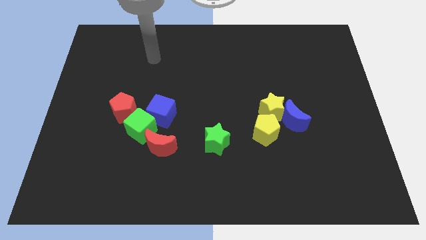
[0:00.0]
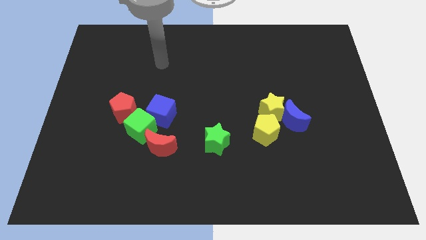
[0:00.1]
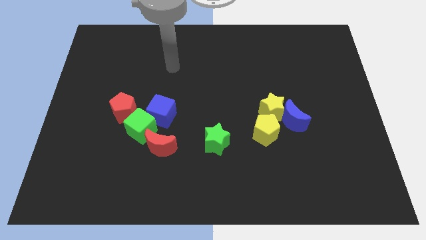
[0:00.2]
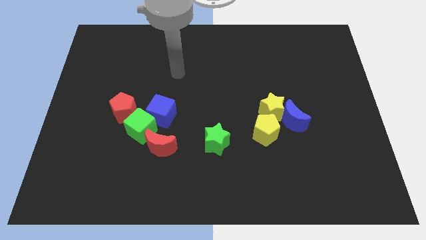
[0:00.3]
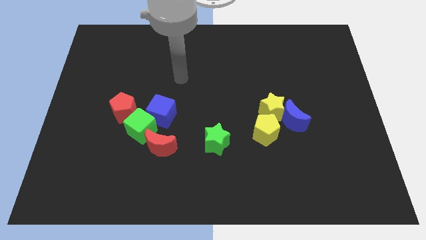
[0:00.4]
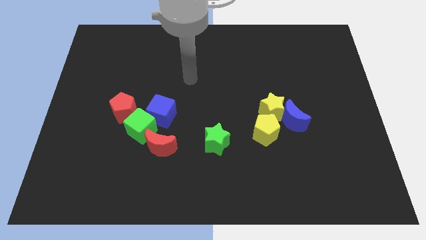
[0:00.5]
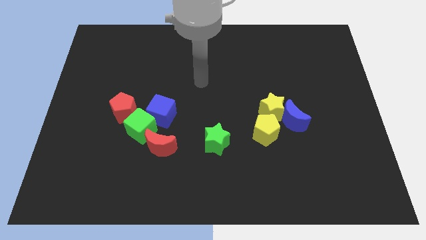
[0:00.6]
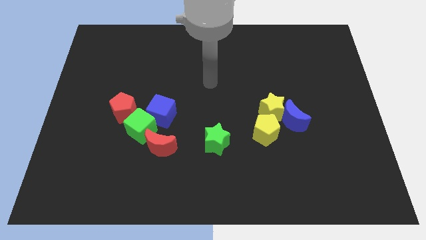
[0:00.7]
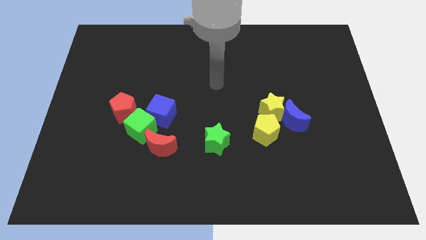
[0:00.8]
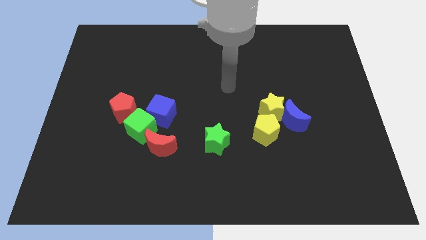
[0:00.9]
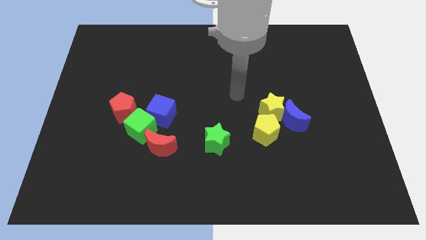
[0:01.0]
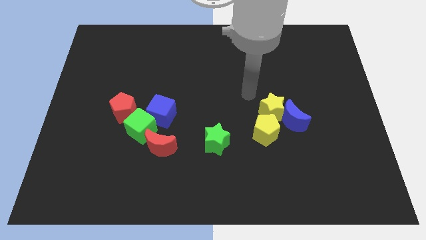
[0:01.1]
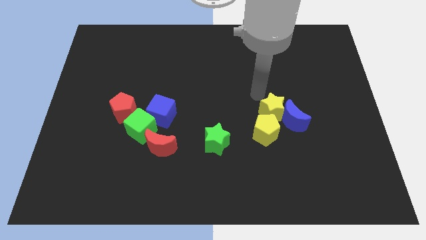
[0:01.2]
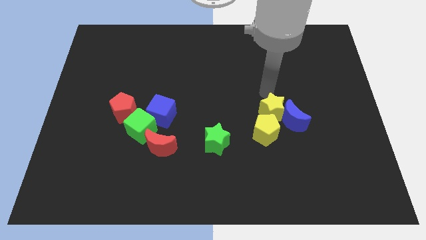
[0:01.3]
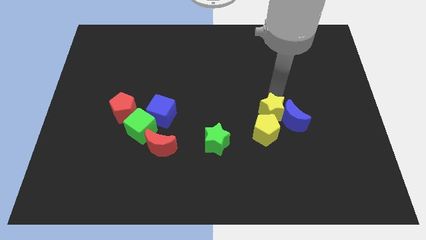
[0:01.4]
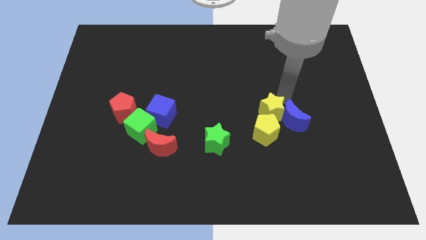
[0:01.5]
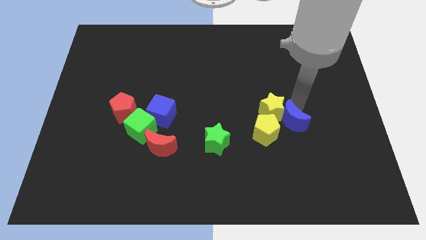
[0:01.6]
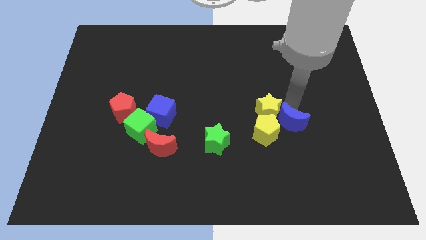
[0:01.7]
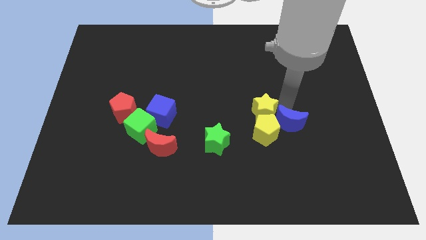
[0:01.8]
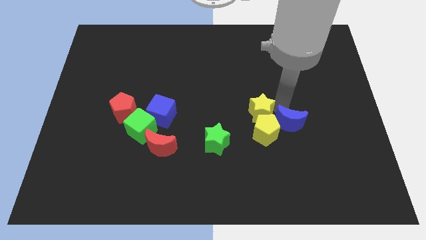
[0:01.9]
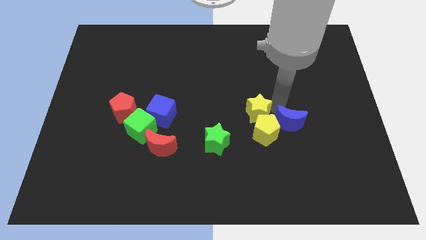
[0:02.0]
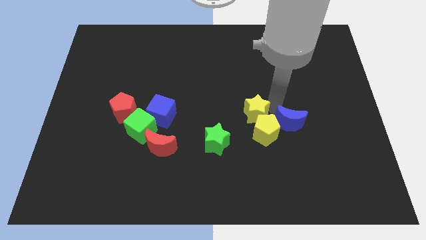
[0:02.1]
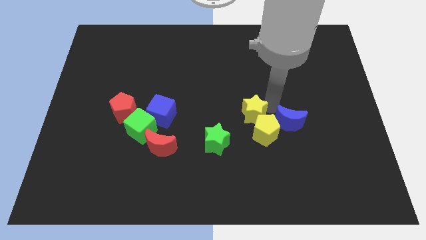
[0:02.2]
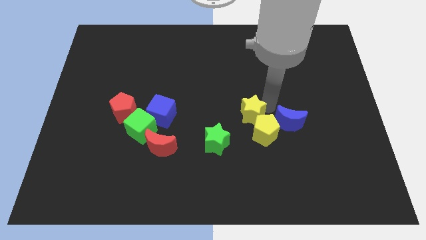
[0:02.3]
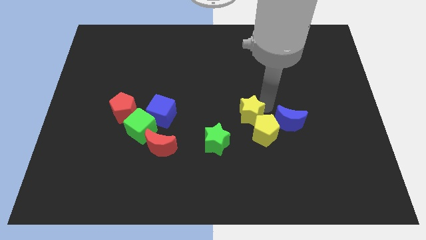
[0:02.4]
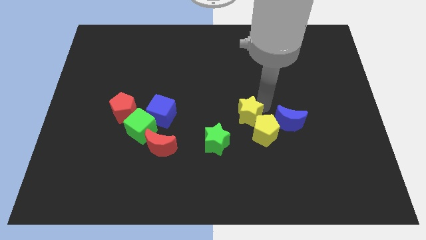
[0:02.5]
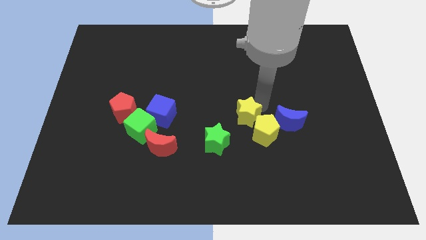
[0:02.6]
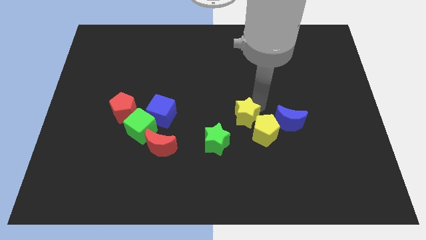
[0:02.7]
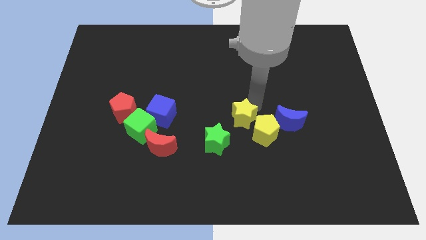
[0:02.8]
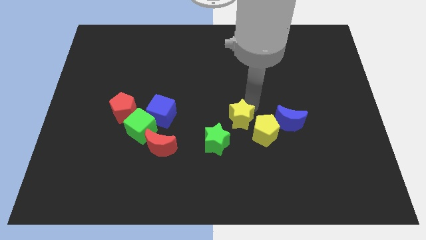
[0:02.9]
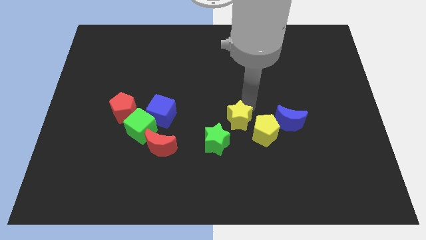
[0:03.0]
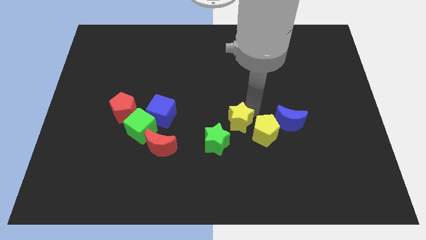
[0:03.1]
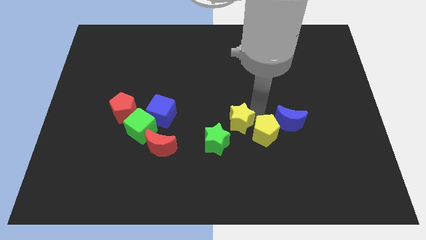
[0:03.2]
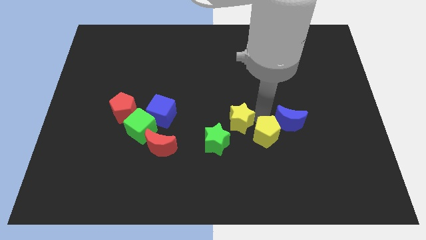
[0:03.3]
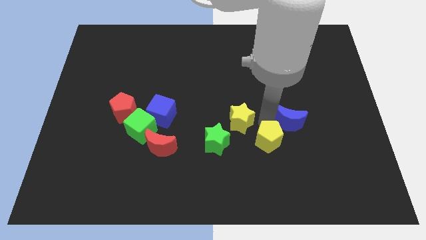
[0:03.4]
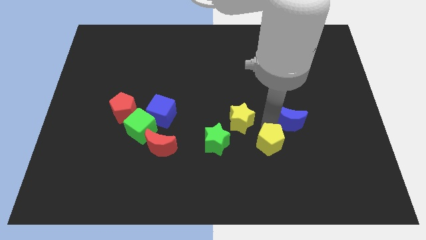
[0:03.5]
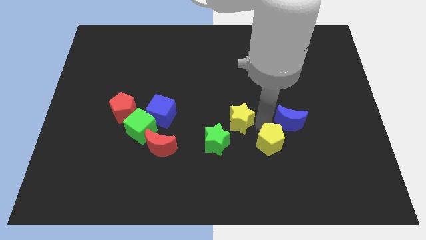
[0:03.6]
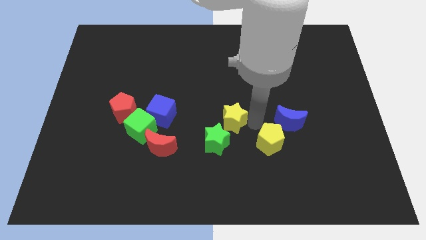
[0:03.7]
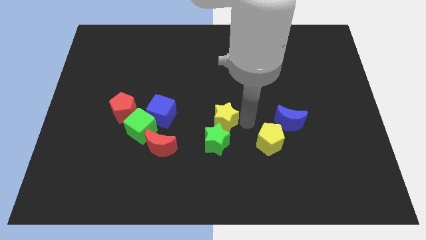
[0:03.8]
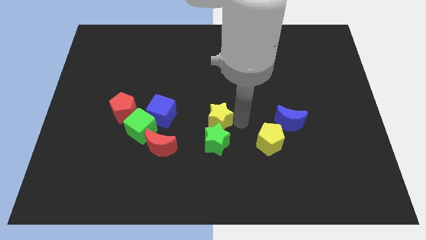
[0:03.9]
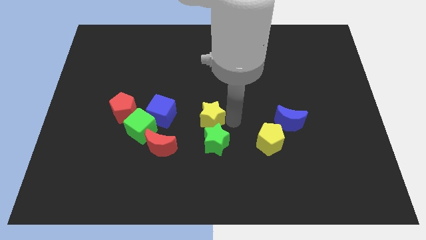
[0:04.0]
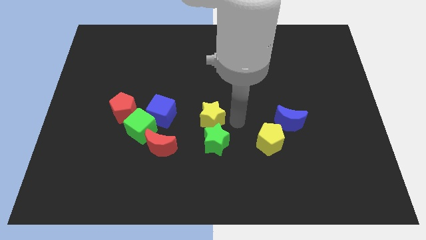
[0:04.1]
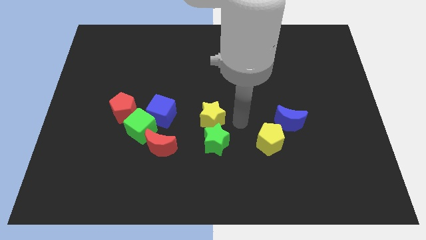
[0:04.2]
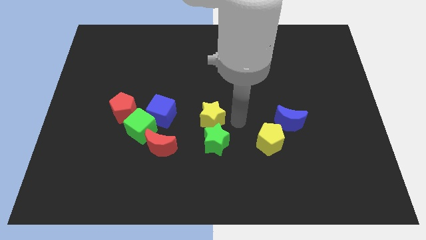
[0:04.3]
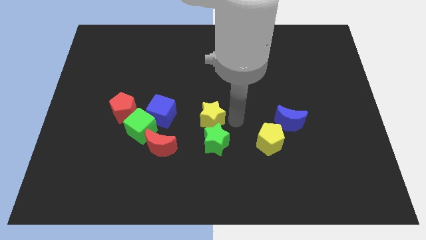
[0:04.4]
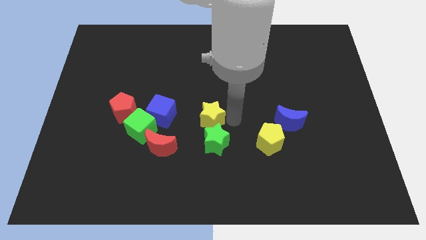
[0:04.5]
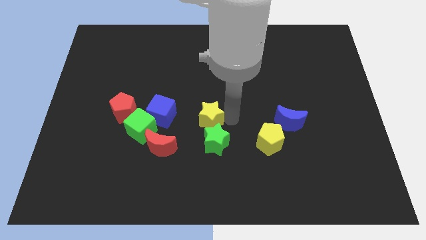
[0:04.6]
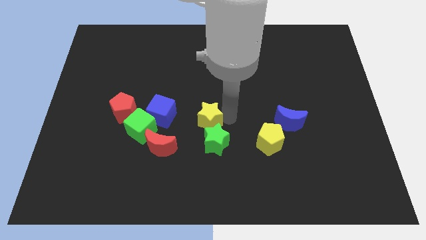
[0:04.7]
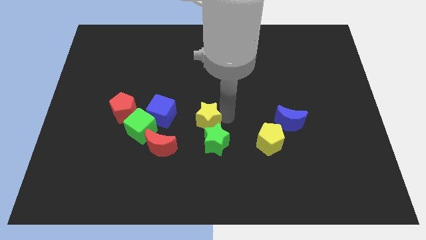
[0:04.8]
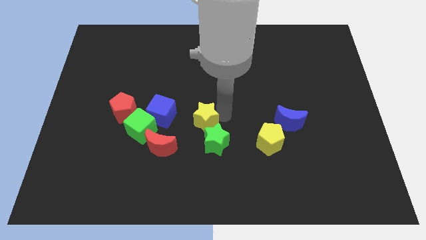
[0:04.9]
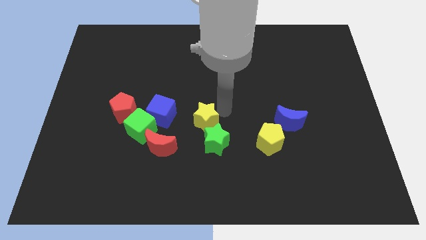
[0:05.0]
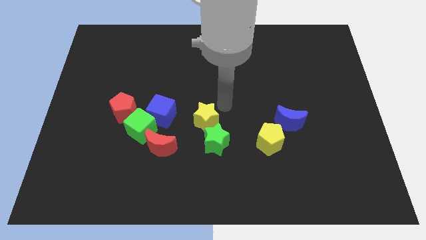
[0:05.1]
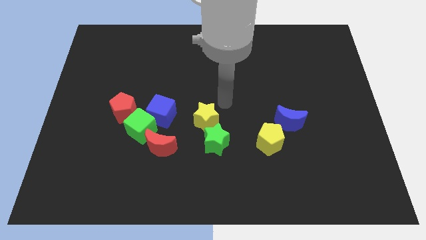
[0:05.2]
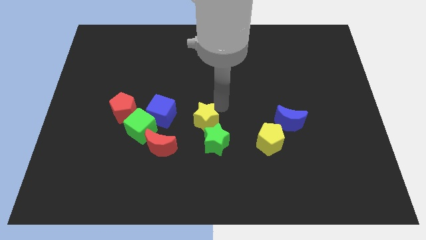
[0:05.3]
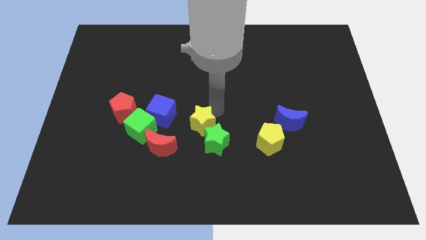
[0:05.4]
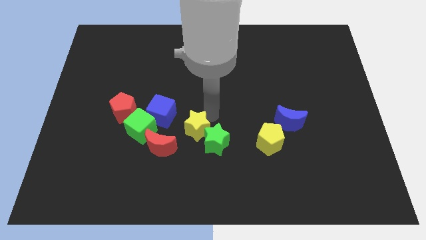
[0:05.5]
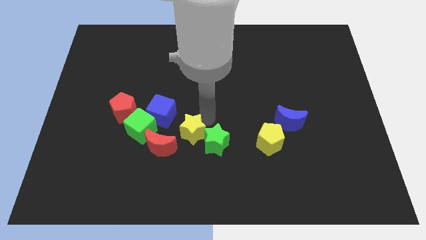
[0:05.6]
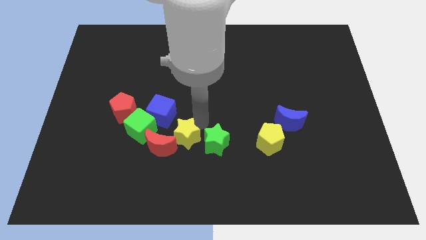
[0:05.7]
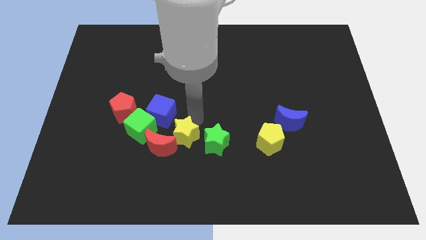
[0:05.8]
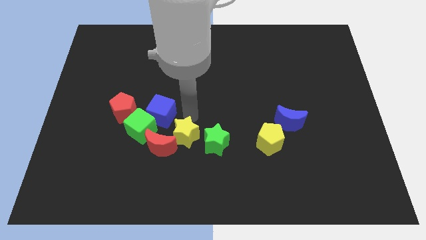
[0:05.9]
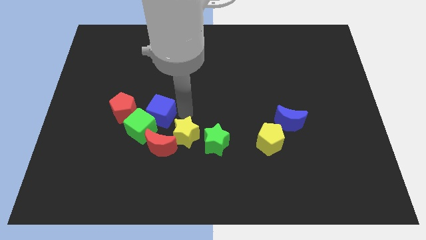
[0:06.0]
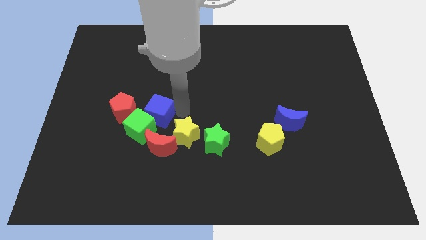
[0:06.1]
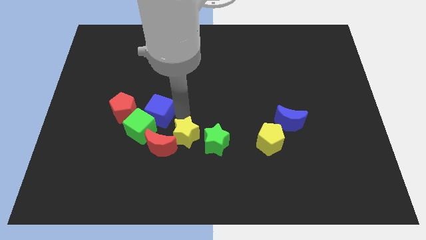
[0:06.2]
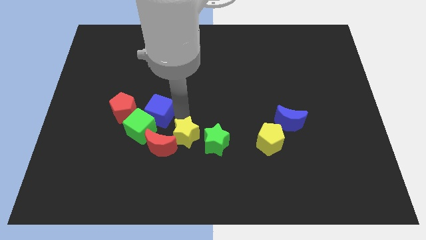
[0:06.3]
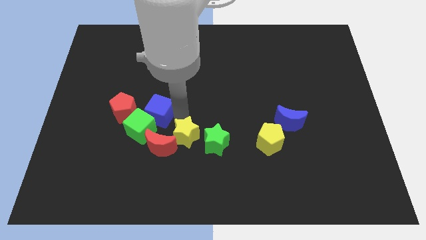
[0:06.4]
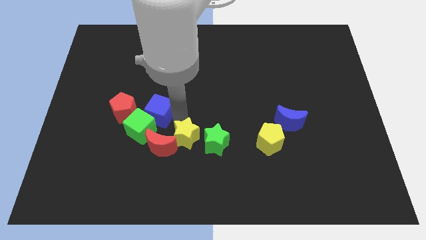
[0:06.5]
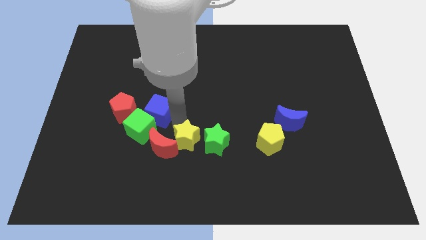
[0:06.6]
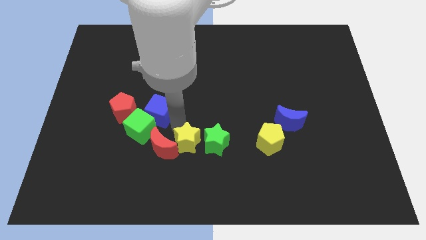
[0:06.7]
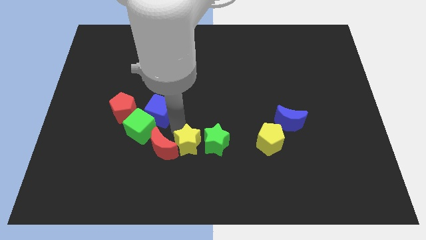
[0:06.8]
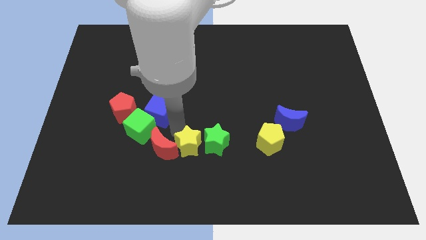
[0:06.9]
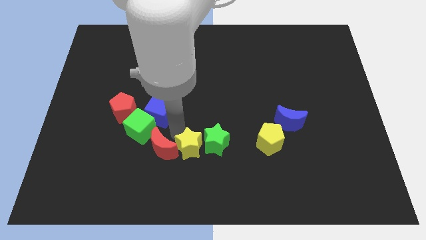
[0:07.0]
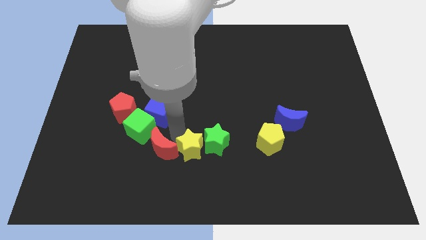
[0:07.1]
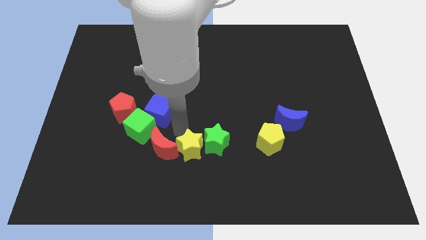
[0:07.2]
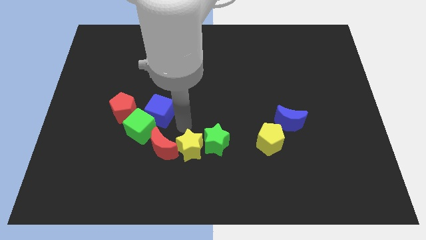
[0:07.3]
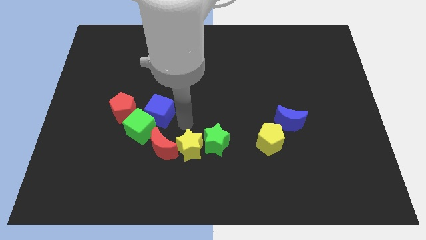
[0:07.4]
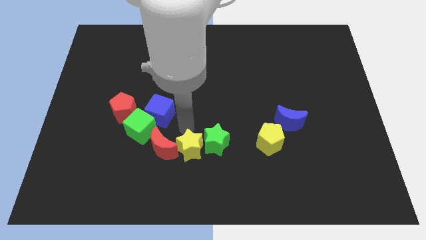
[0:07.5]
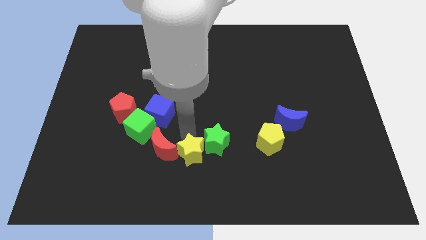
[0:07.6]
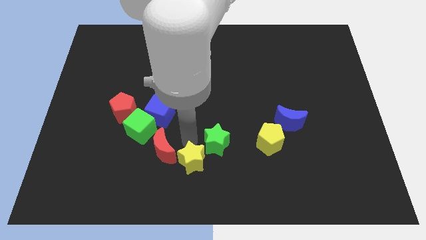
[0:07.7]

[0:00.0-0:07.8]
put the yellow star to the bottom
